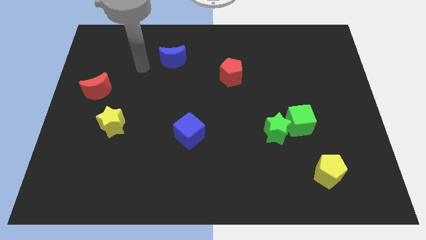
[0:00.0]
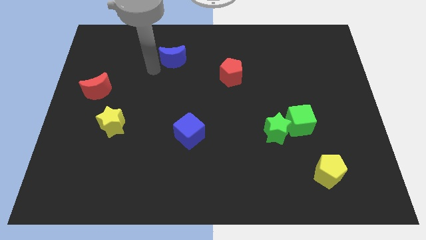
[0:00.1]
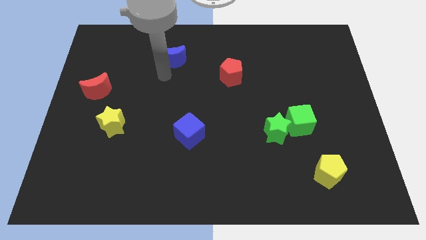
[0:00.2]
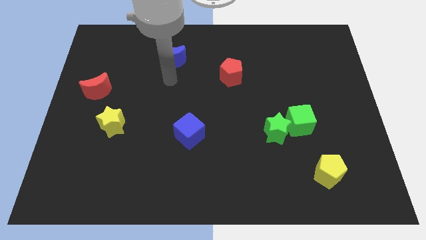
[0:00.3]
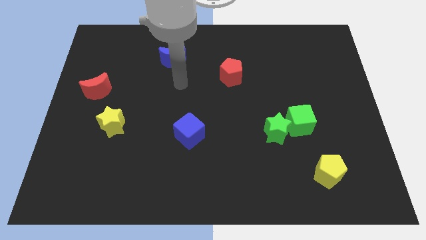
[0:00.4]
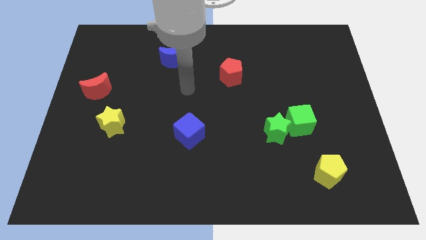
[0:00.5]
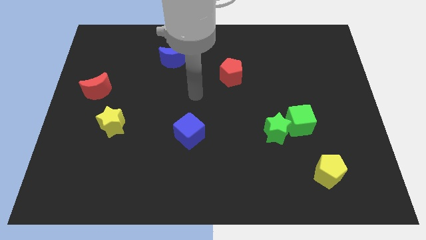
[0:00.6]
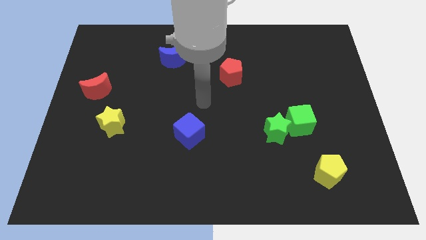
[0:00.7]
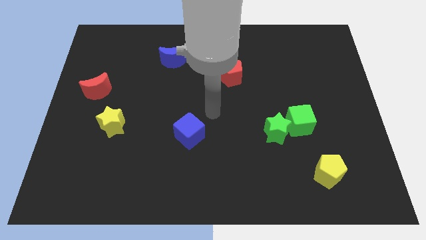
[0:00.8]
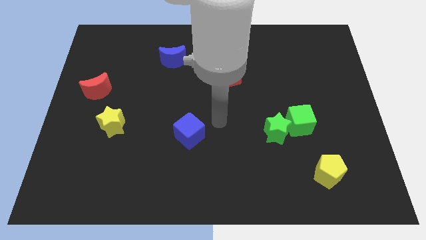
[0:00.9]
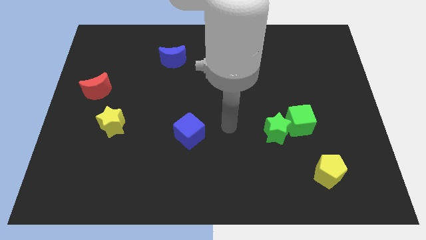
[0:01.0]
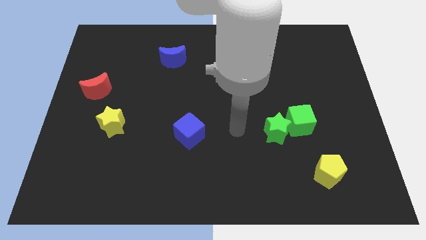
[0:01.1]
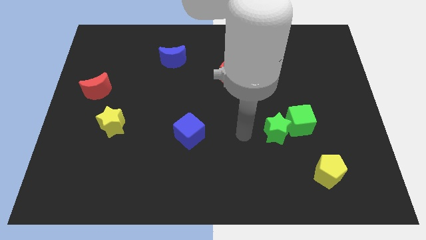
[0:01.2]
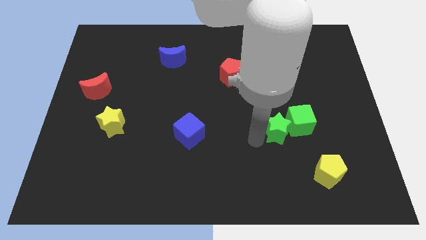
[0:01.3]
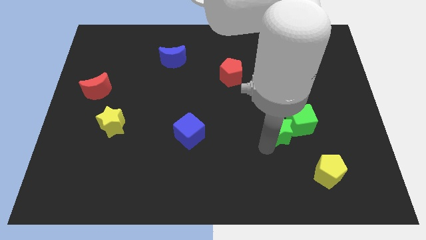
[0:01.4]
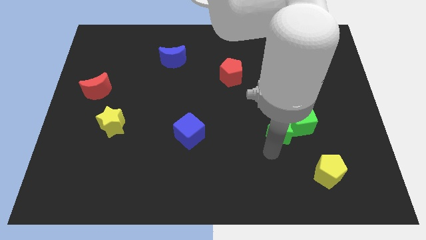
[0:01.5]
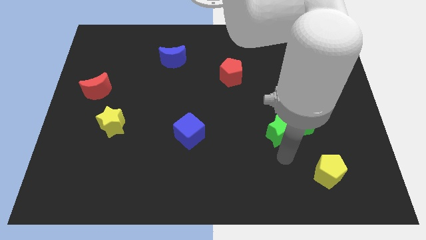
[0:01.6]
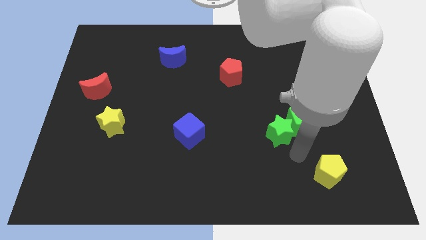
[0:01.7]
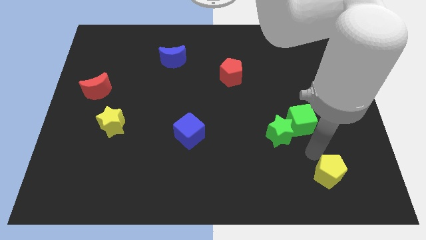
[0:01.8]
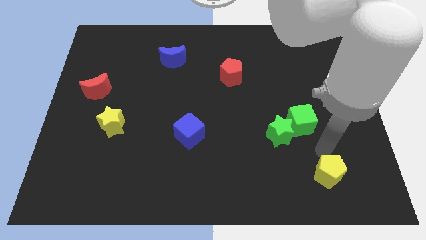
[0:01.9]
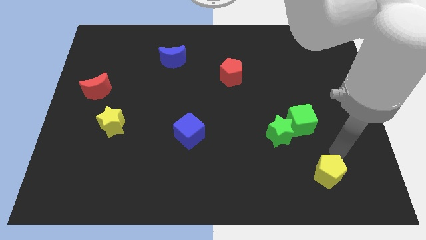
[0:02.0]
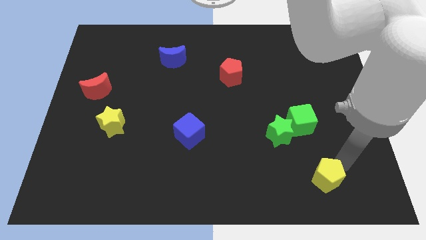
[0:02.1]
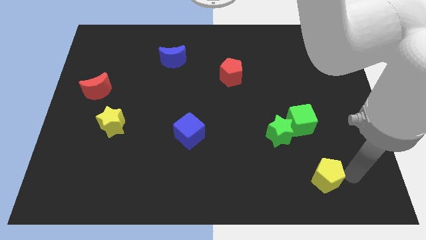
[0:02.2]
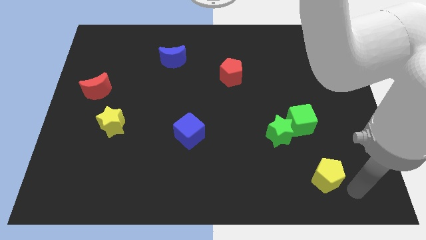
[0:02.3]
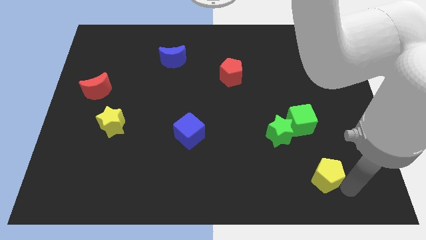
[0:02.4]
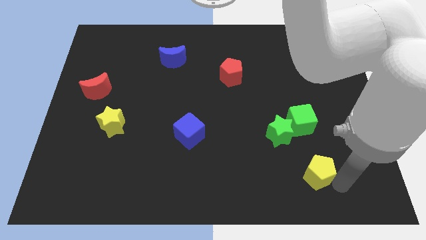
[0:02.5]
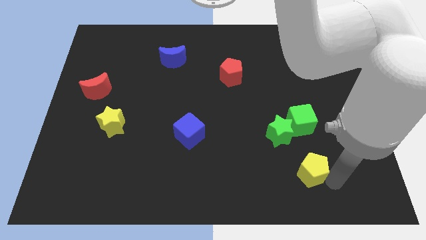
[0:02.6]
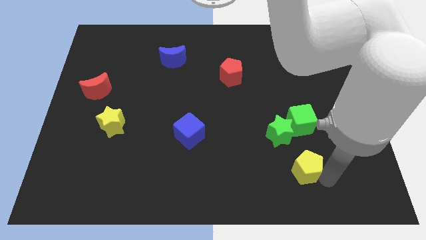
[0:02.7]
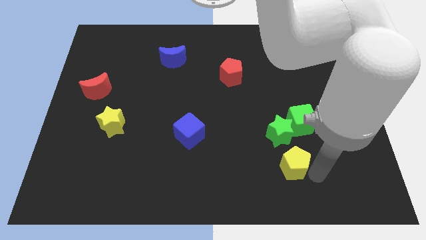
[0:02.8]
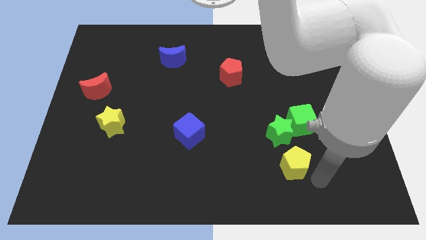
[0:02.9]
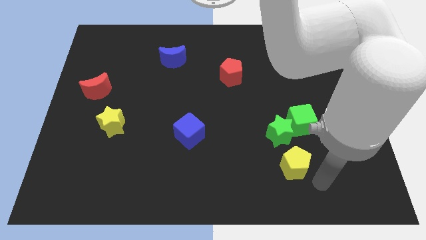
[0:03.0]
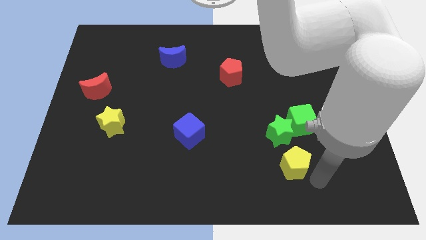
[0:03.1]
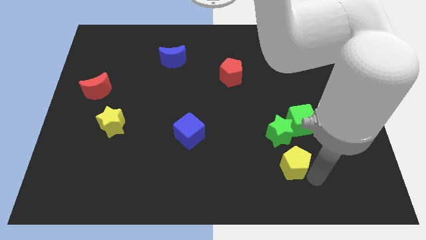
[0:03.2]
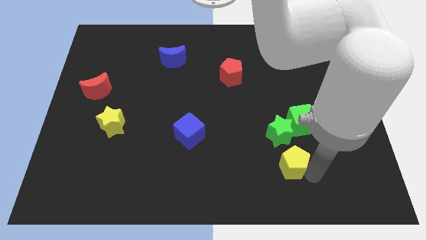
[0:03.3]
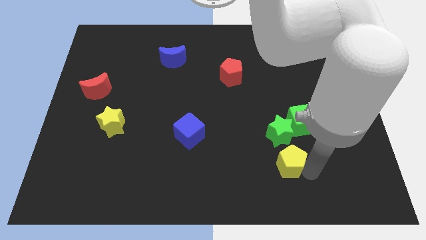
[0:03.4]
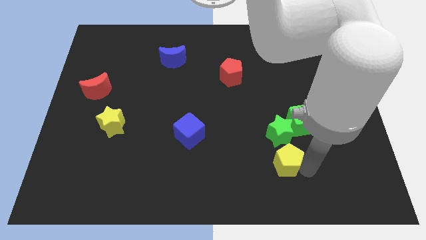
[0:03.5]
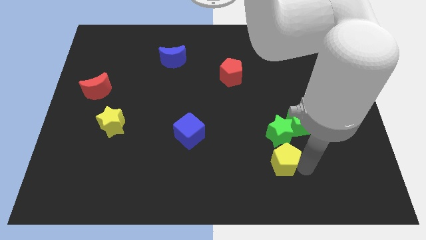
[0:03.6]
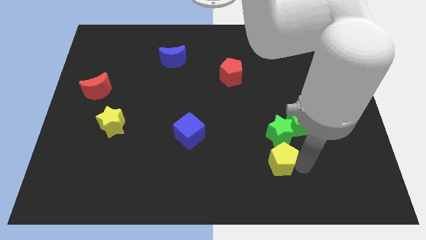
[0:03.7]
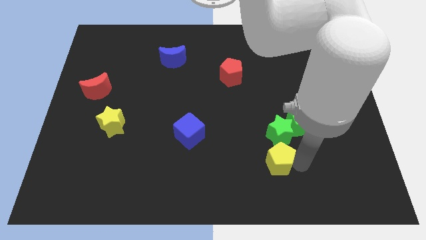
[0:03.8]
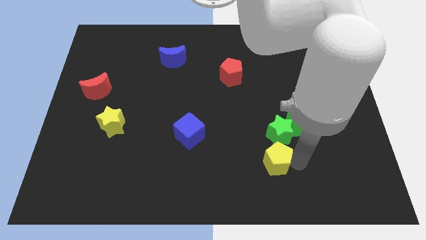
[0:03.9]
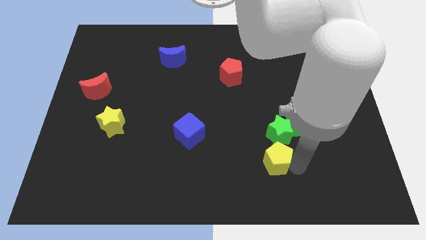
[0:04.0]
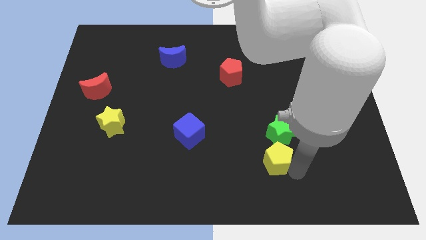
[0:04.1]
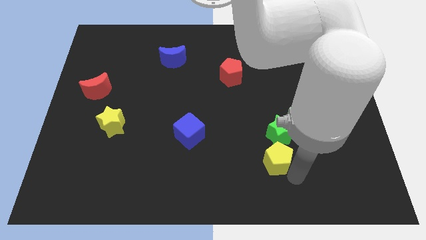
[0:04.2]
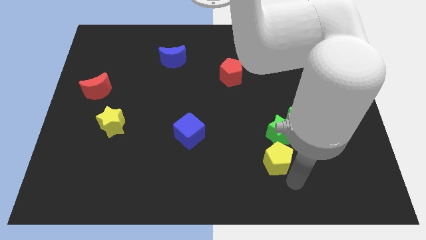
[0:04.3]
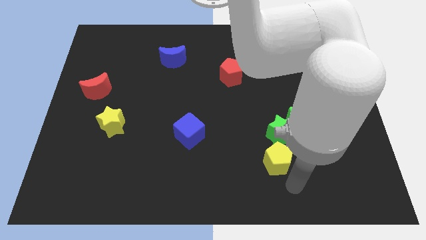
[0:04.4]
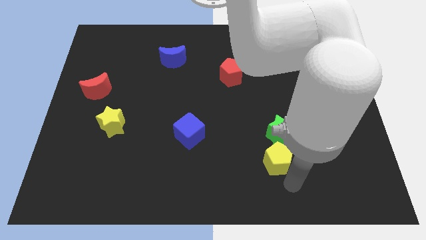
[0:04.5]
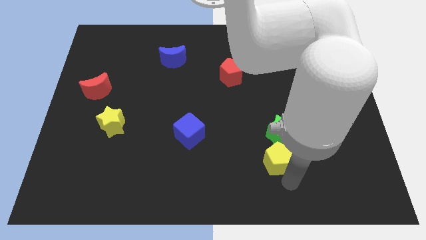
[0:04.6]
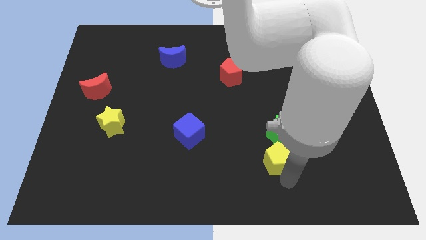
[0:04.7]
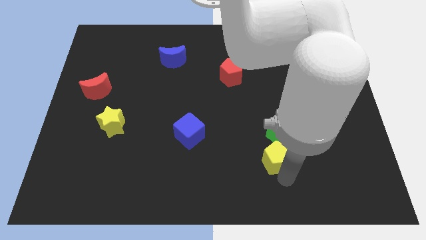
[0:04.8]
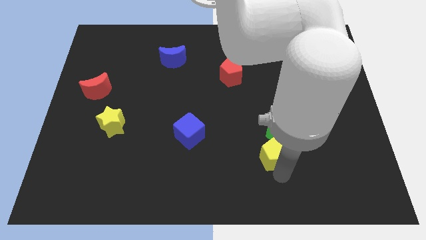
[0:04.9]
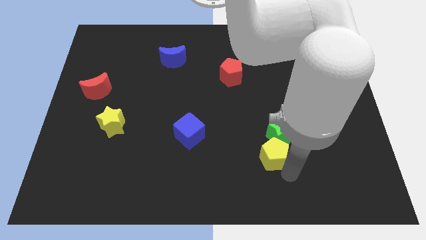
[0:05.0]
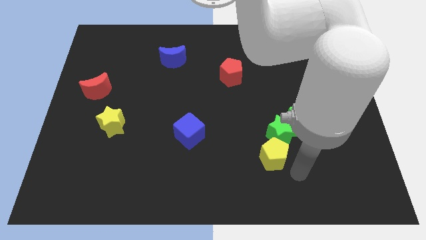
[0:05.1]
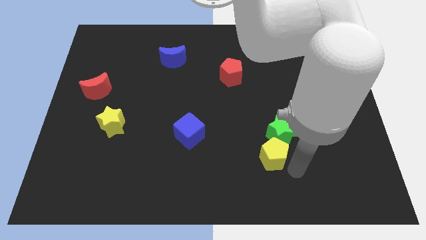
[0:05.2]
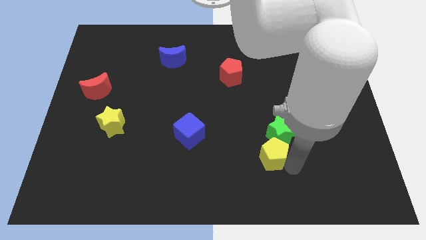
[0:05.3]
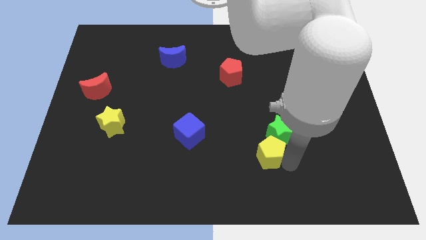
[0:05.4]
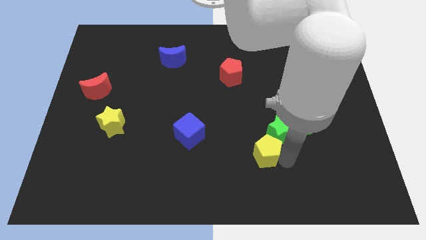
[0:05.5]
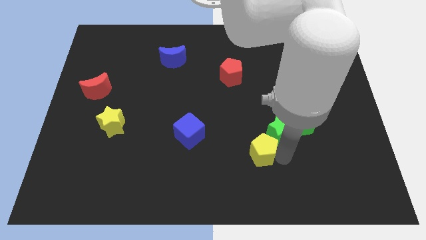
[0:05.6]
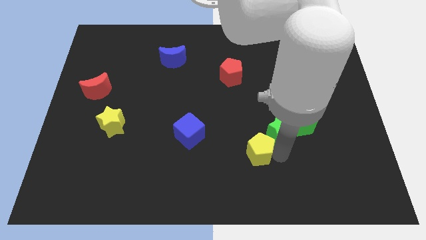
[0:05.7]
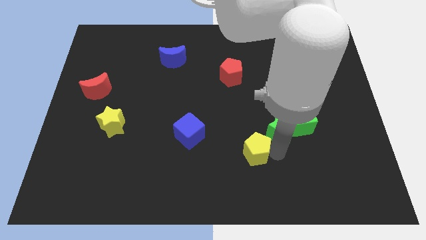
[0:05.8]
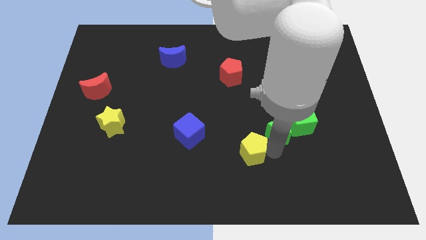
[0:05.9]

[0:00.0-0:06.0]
move the yellow pentagon to the right side of the blue cube

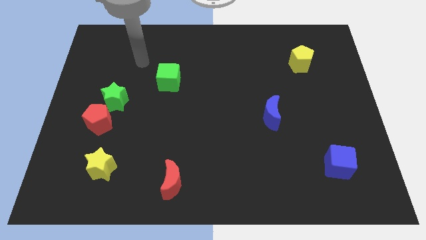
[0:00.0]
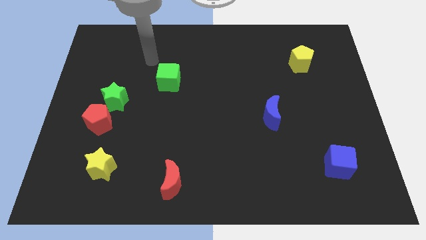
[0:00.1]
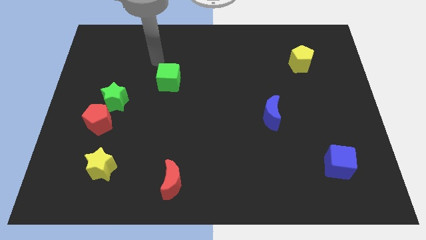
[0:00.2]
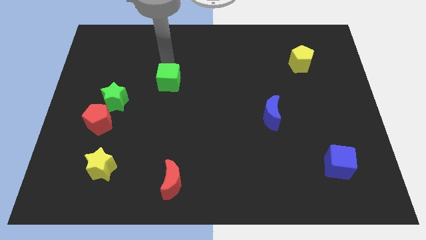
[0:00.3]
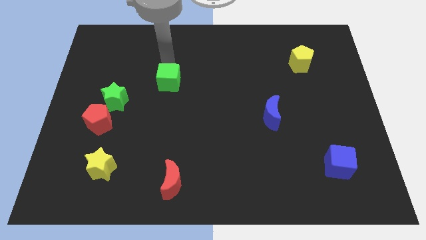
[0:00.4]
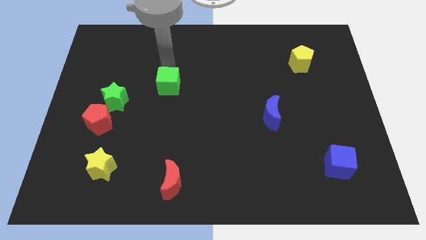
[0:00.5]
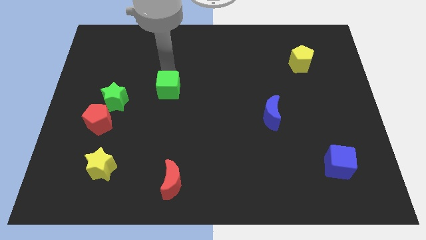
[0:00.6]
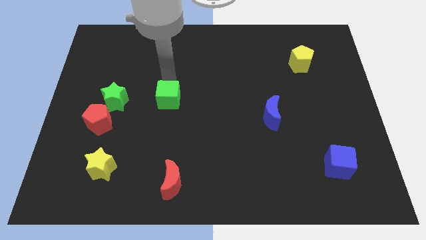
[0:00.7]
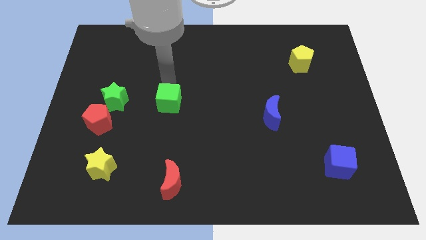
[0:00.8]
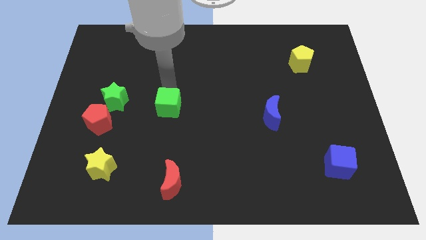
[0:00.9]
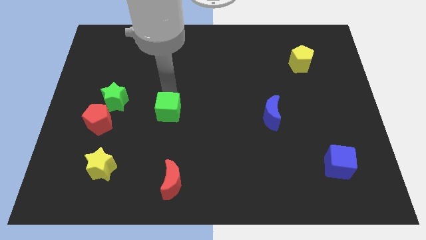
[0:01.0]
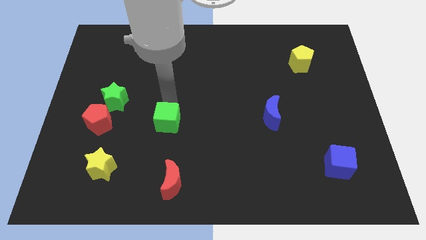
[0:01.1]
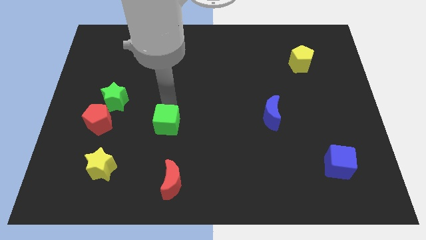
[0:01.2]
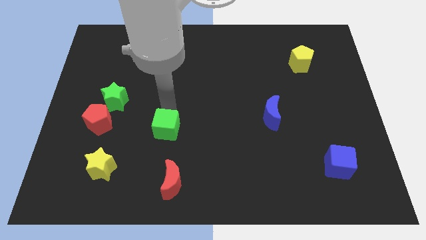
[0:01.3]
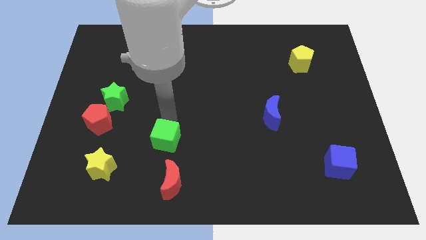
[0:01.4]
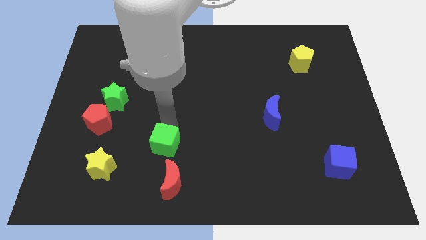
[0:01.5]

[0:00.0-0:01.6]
slide the green cube to the top left of the red moon
